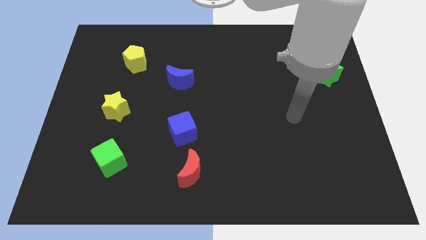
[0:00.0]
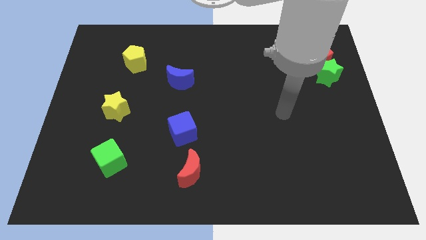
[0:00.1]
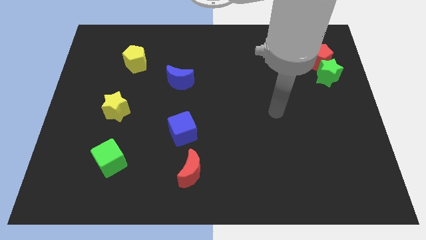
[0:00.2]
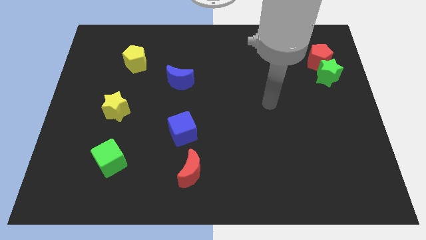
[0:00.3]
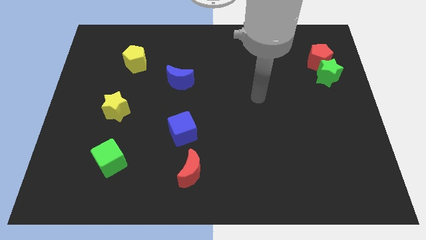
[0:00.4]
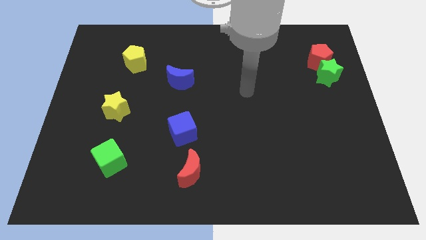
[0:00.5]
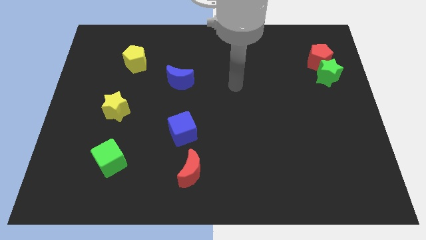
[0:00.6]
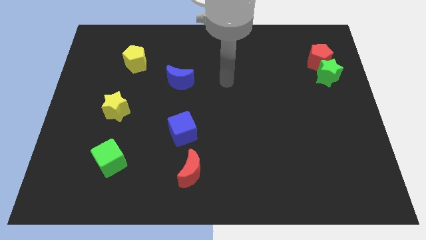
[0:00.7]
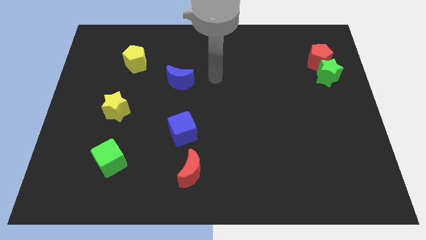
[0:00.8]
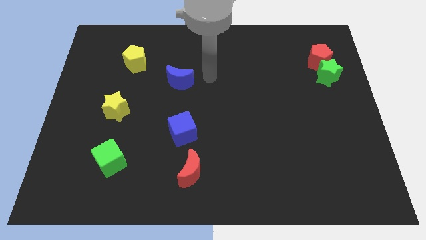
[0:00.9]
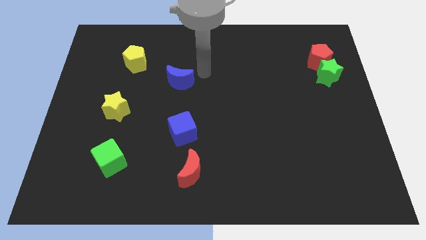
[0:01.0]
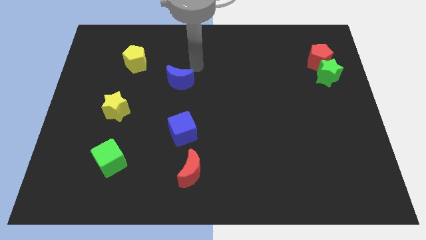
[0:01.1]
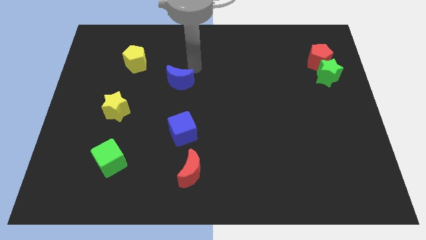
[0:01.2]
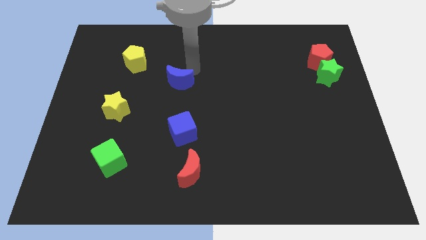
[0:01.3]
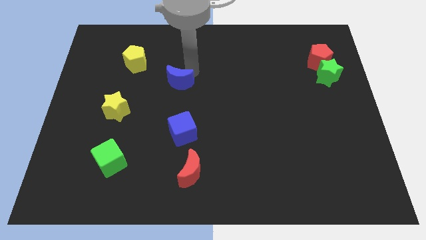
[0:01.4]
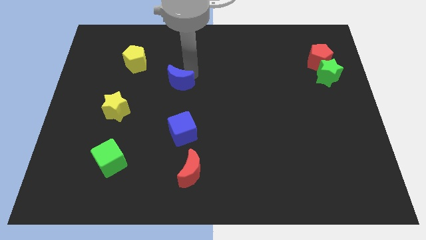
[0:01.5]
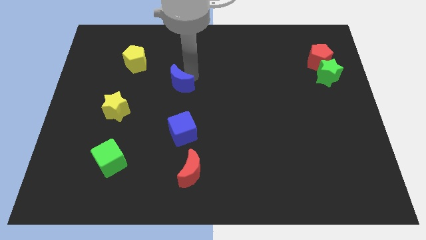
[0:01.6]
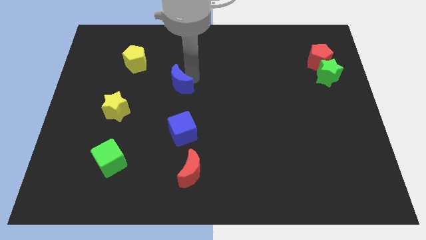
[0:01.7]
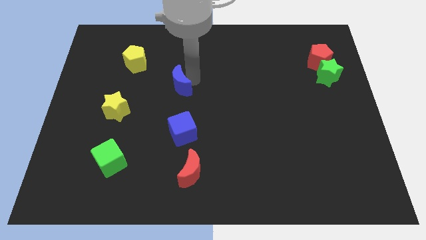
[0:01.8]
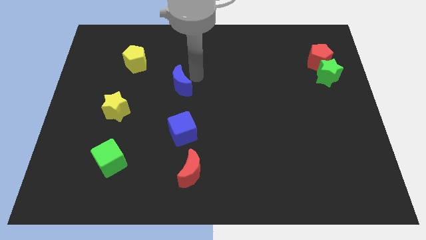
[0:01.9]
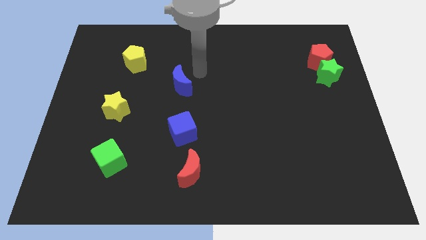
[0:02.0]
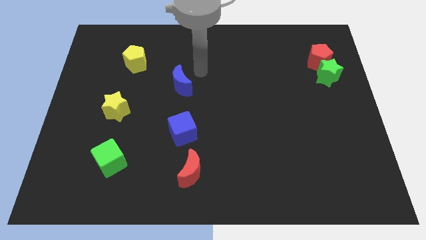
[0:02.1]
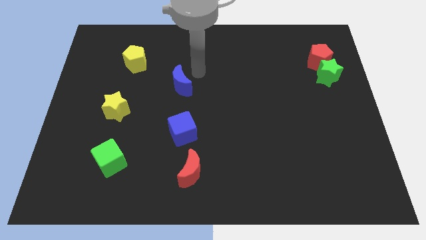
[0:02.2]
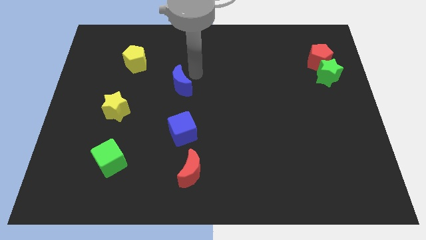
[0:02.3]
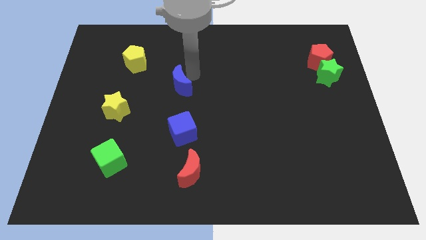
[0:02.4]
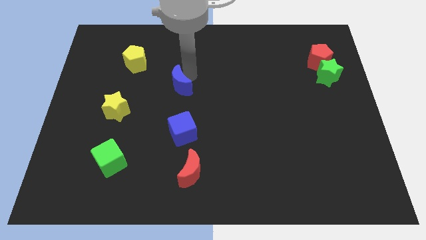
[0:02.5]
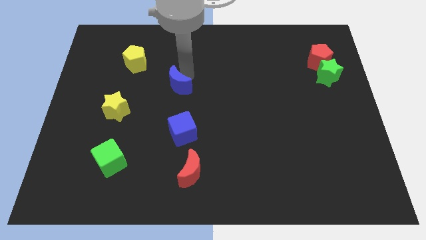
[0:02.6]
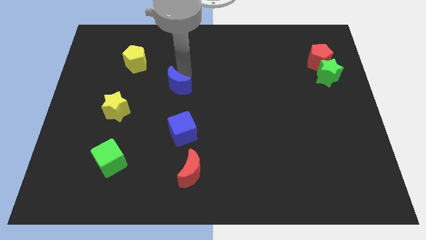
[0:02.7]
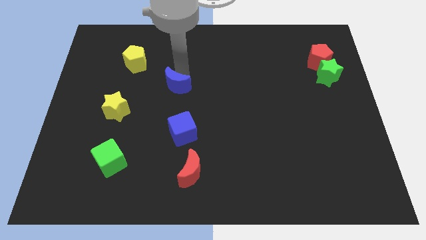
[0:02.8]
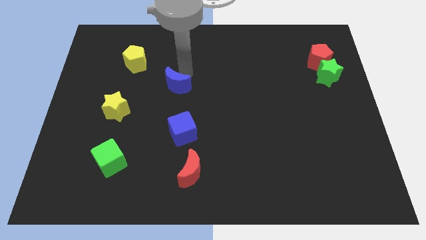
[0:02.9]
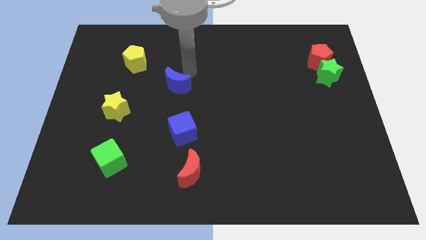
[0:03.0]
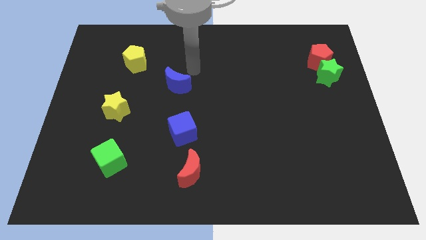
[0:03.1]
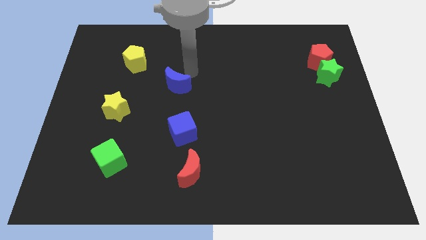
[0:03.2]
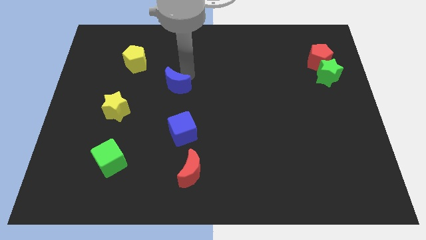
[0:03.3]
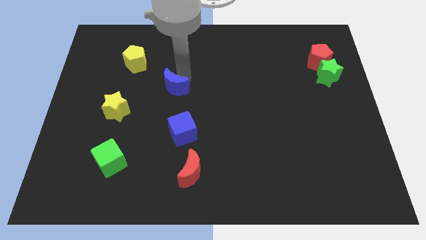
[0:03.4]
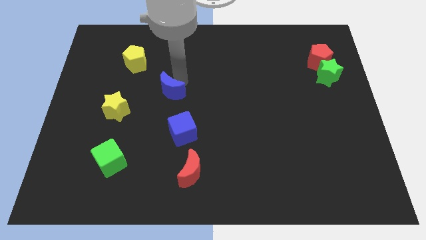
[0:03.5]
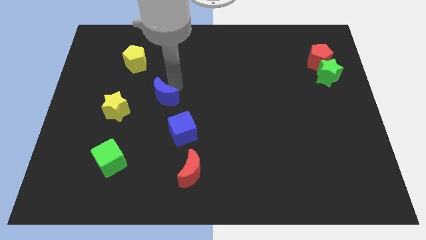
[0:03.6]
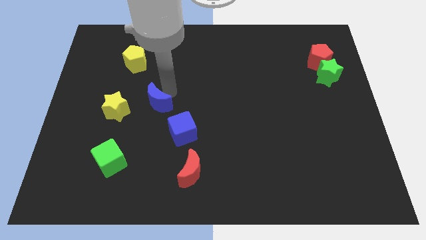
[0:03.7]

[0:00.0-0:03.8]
slightly slide the blue moon down and left

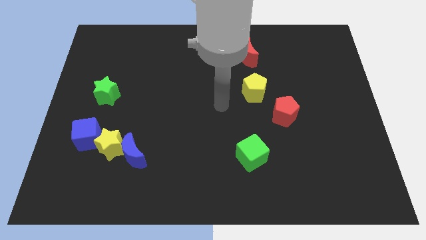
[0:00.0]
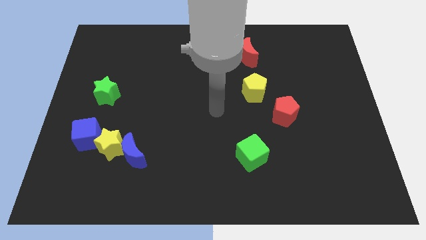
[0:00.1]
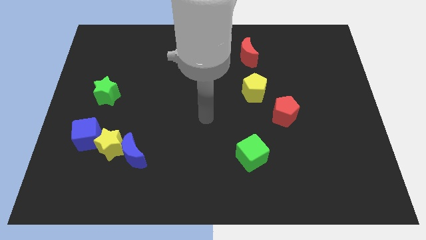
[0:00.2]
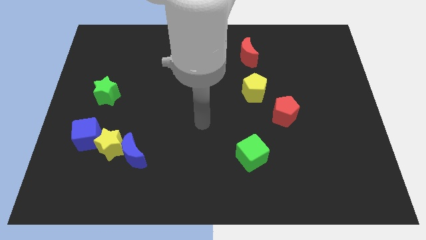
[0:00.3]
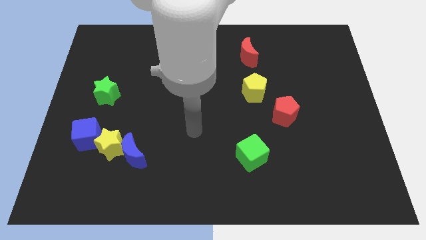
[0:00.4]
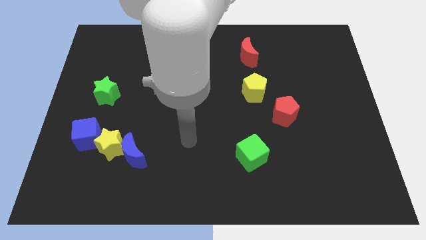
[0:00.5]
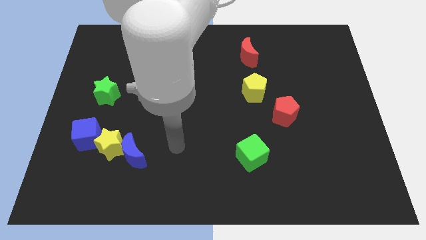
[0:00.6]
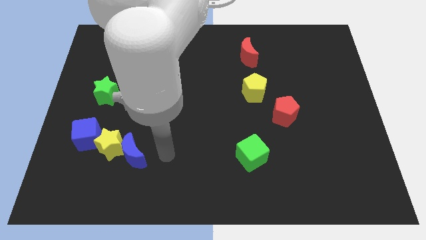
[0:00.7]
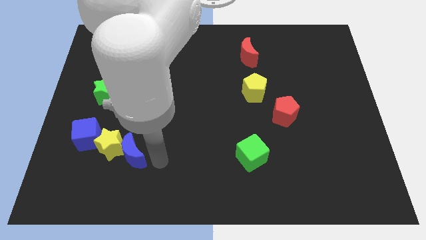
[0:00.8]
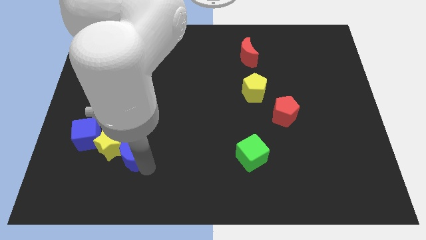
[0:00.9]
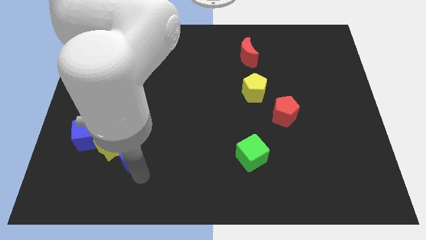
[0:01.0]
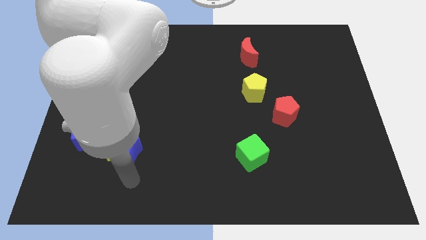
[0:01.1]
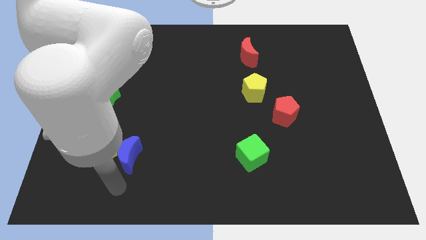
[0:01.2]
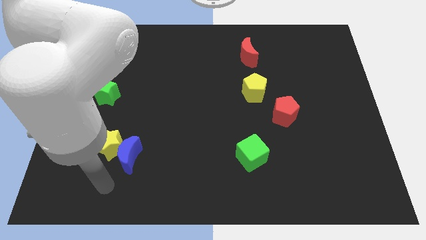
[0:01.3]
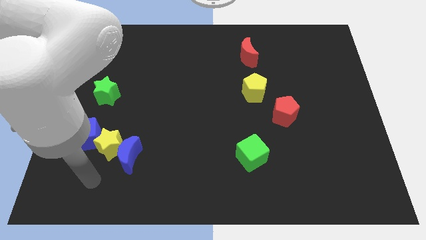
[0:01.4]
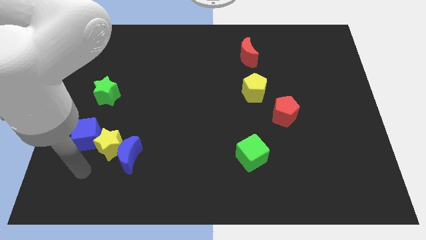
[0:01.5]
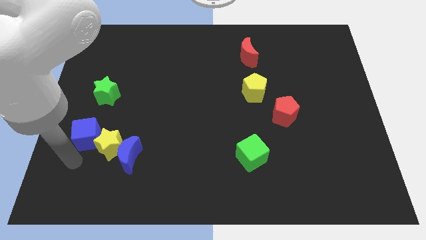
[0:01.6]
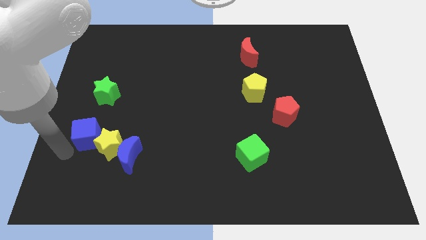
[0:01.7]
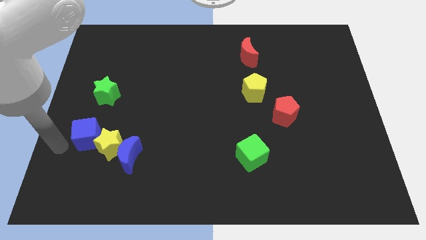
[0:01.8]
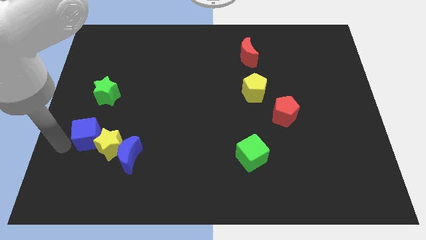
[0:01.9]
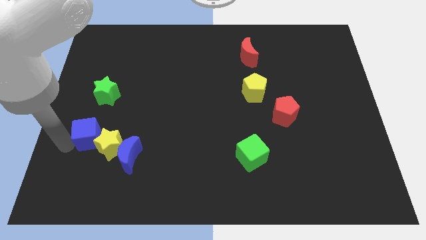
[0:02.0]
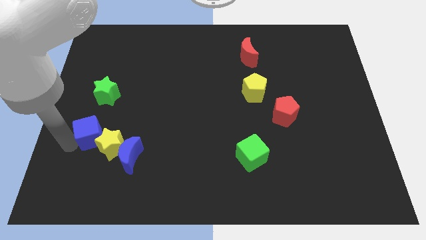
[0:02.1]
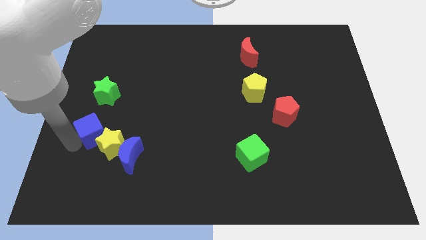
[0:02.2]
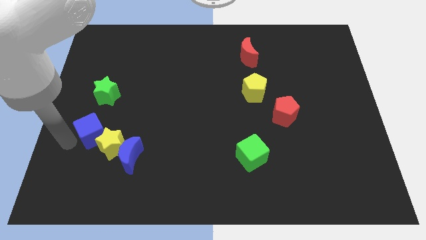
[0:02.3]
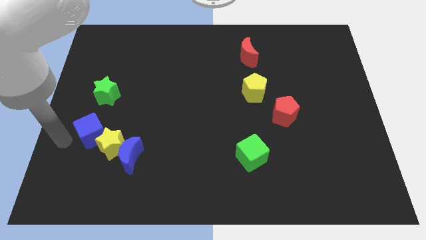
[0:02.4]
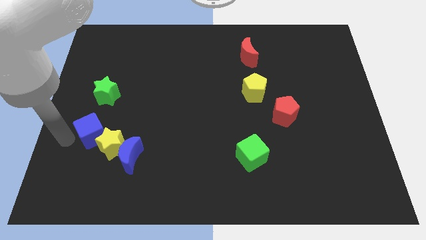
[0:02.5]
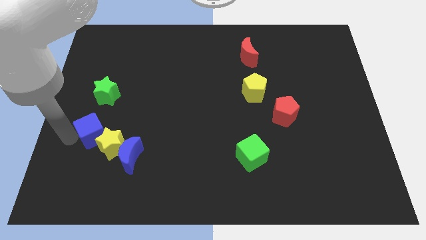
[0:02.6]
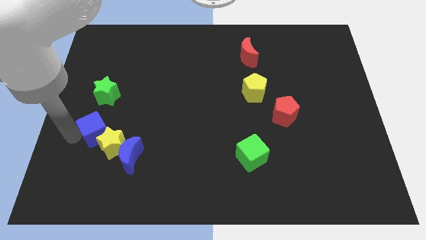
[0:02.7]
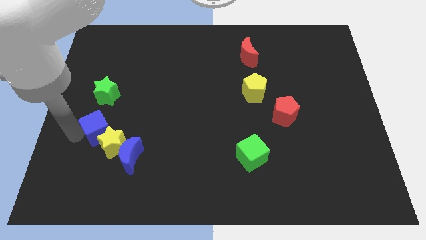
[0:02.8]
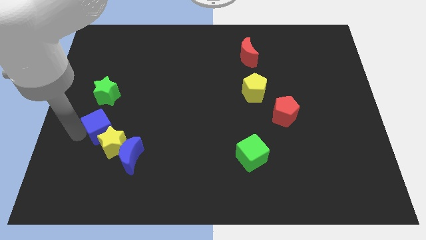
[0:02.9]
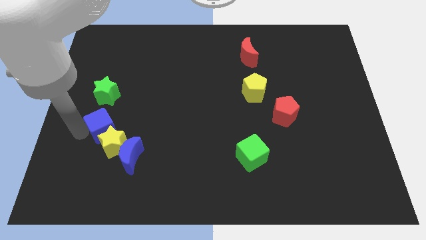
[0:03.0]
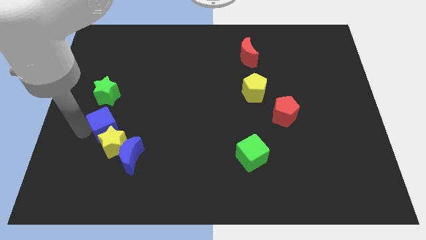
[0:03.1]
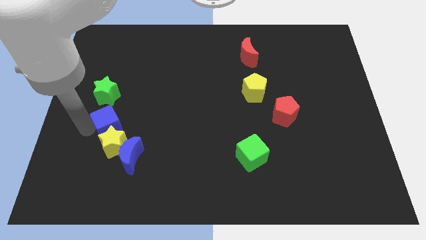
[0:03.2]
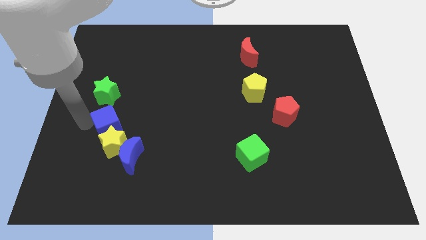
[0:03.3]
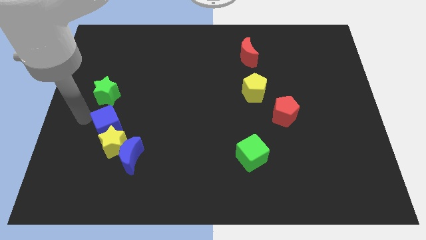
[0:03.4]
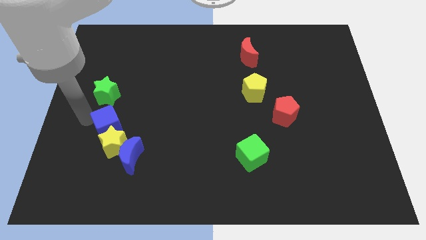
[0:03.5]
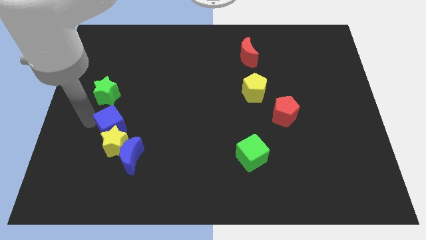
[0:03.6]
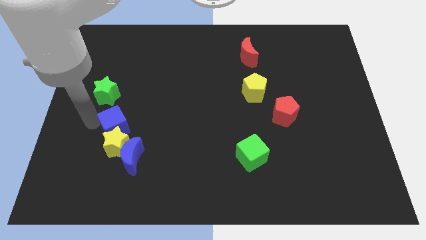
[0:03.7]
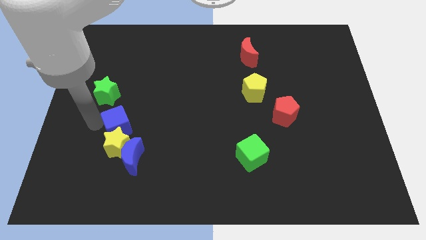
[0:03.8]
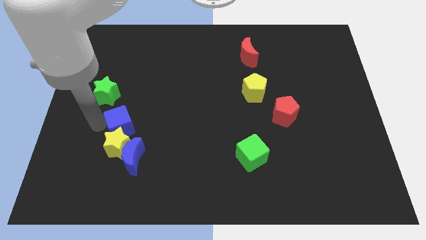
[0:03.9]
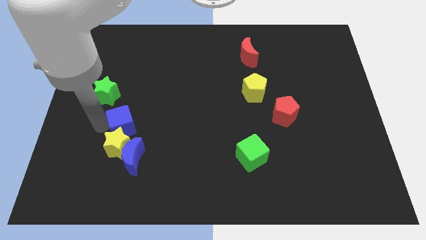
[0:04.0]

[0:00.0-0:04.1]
move the blue cube somewhat right

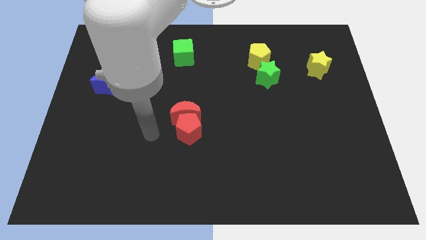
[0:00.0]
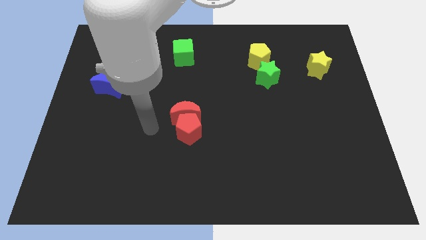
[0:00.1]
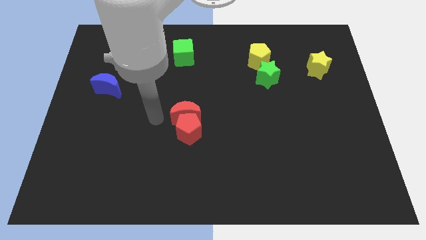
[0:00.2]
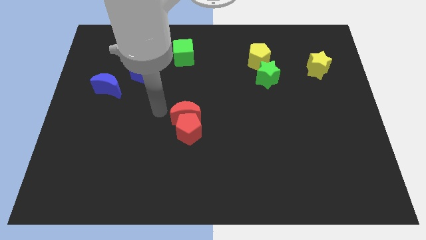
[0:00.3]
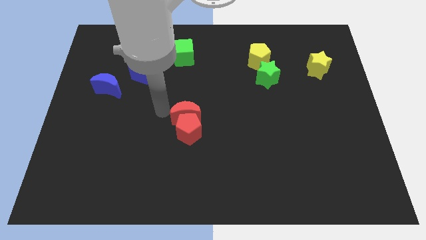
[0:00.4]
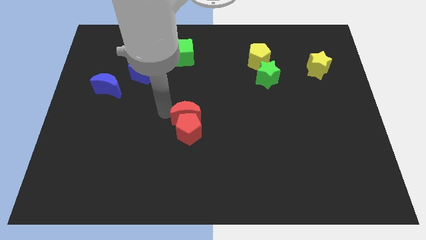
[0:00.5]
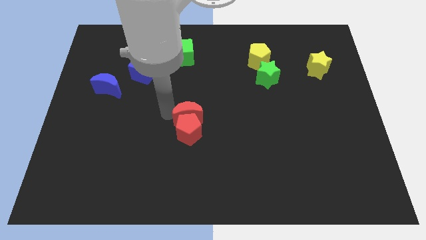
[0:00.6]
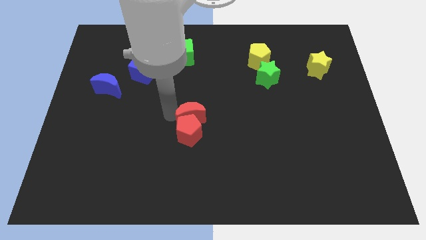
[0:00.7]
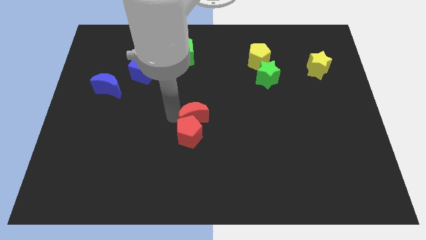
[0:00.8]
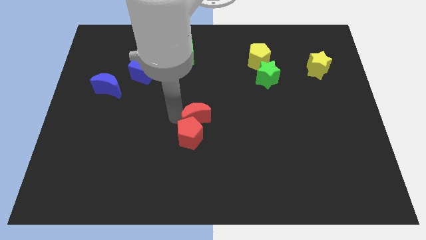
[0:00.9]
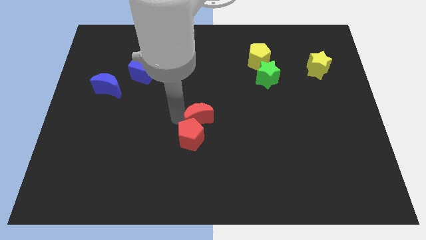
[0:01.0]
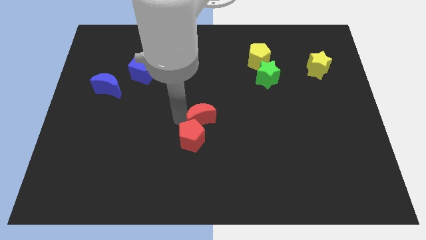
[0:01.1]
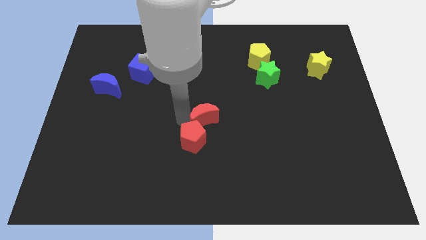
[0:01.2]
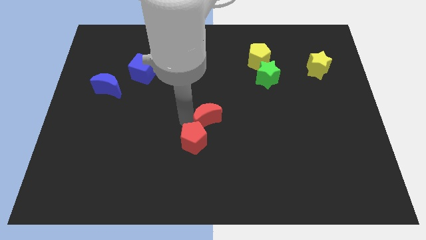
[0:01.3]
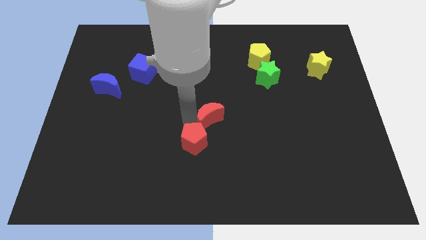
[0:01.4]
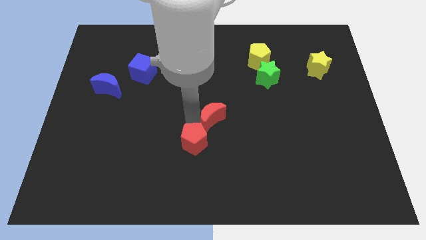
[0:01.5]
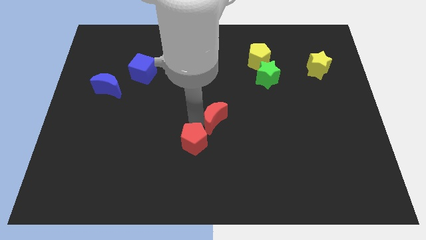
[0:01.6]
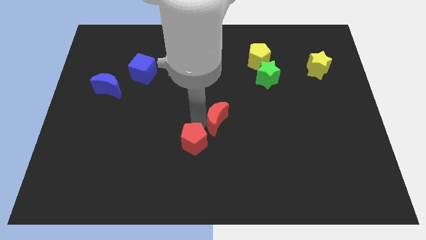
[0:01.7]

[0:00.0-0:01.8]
push the red moon right somewhat
